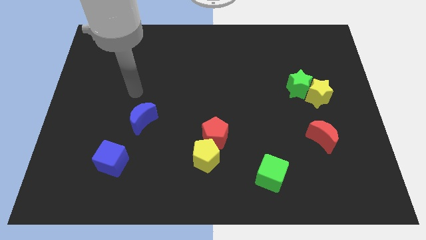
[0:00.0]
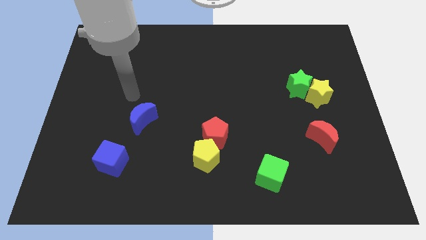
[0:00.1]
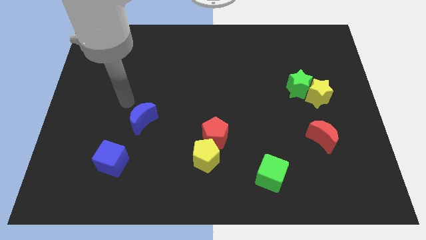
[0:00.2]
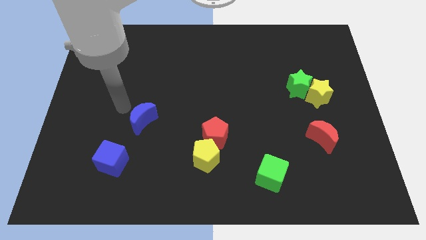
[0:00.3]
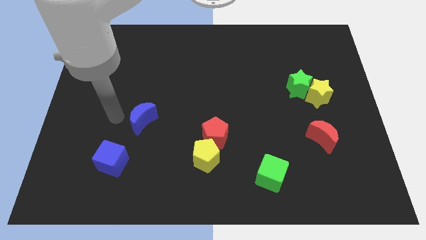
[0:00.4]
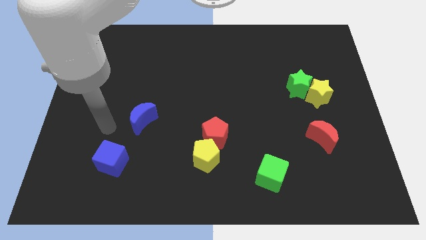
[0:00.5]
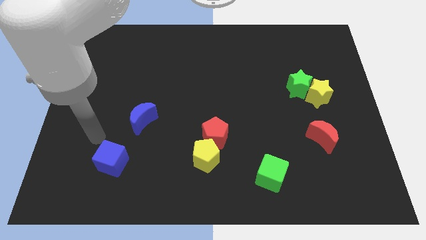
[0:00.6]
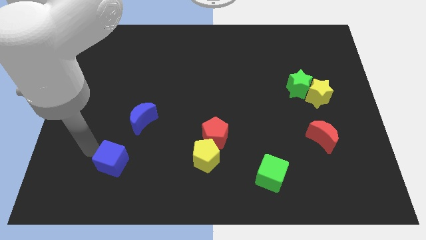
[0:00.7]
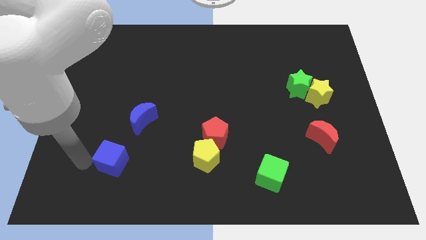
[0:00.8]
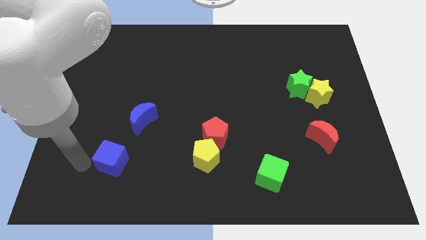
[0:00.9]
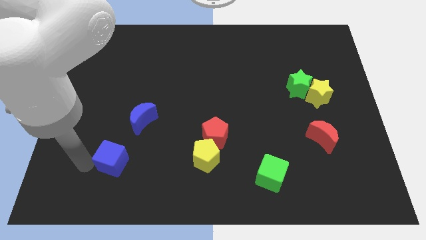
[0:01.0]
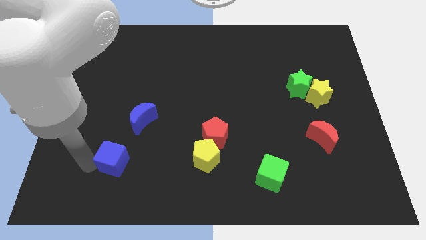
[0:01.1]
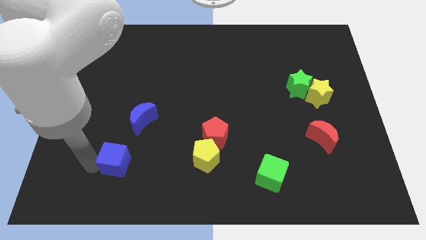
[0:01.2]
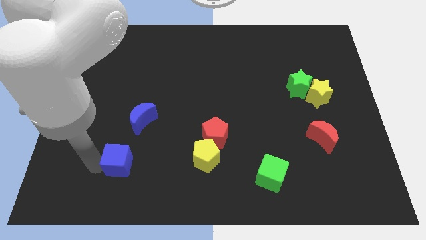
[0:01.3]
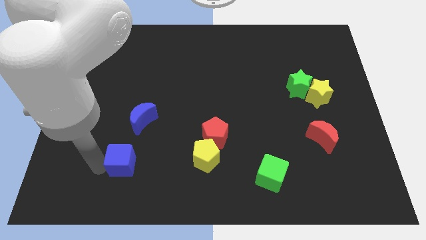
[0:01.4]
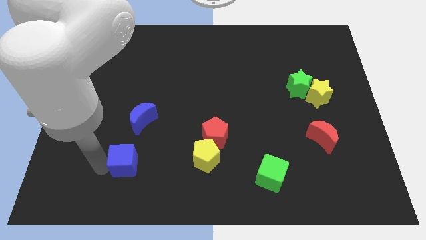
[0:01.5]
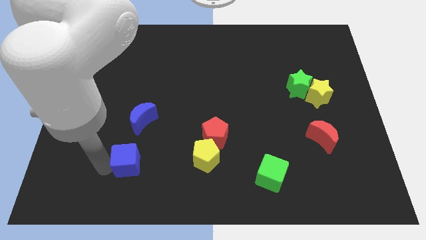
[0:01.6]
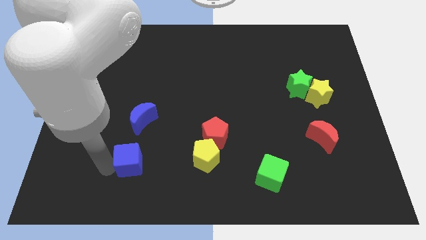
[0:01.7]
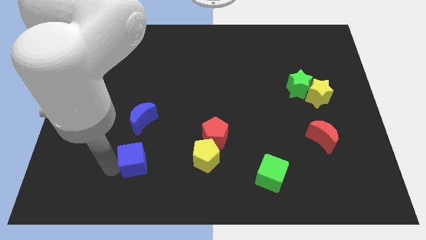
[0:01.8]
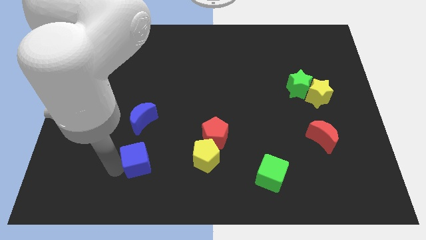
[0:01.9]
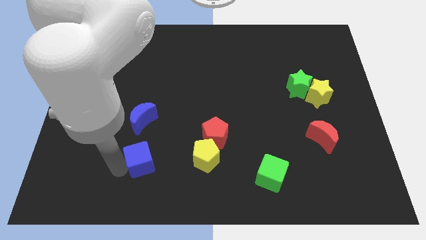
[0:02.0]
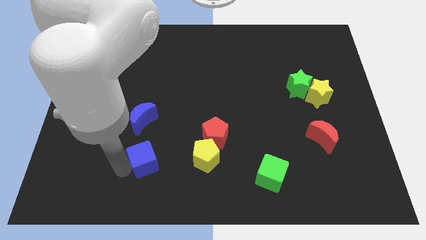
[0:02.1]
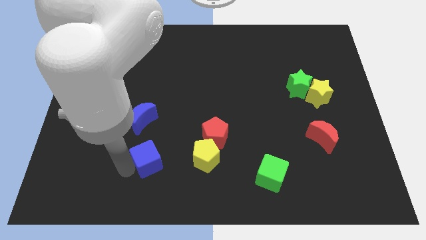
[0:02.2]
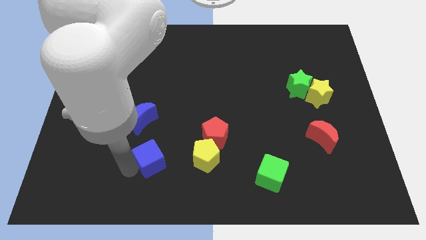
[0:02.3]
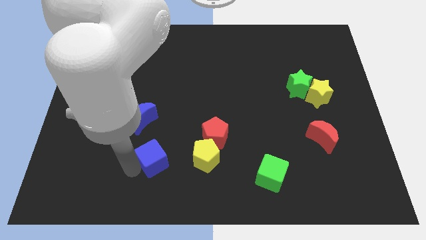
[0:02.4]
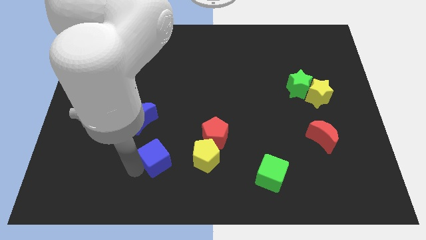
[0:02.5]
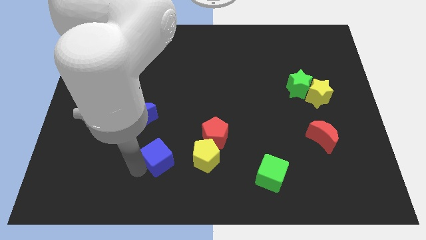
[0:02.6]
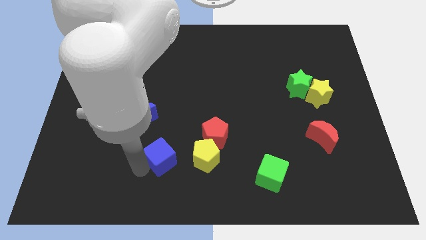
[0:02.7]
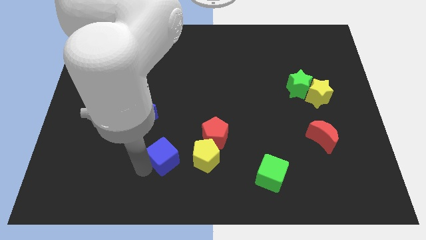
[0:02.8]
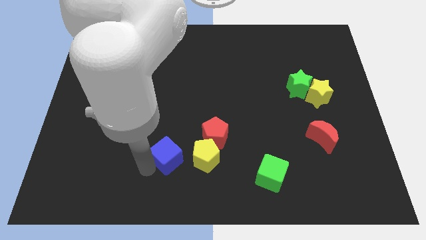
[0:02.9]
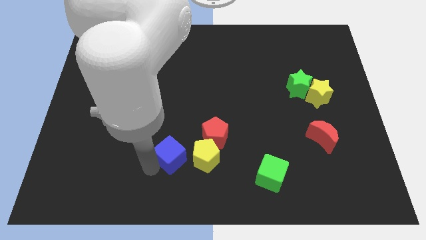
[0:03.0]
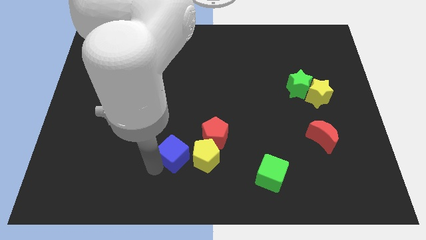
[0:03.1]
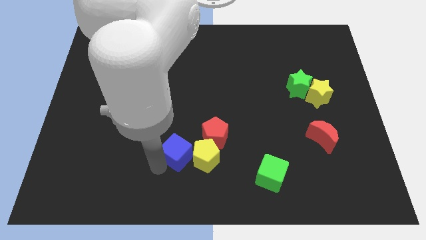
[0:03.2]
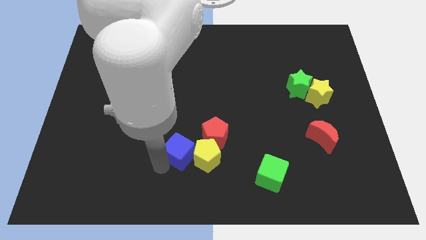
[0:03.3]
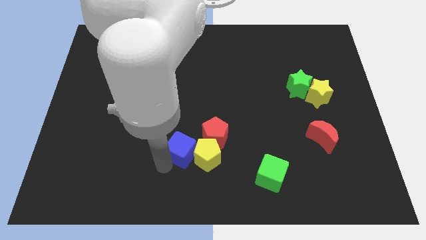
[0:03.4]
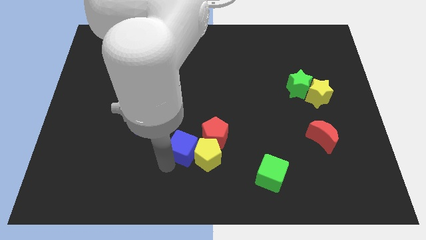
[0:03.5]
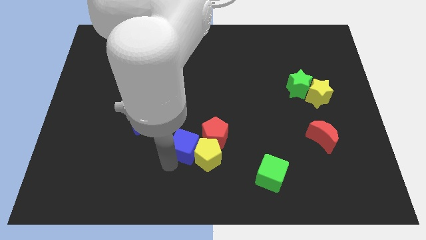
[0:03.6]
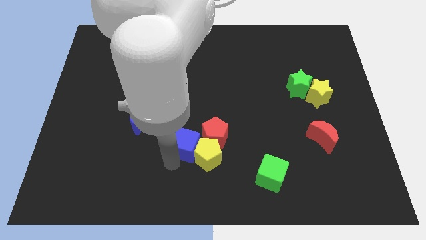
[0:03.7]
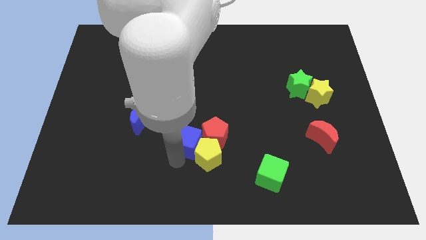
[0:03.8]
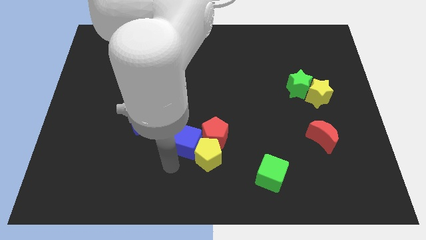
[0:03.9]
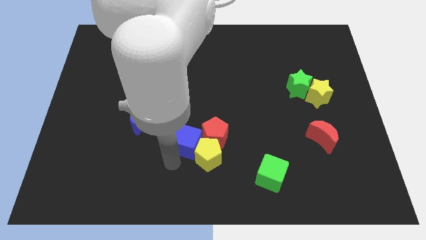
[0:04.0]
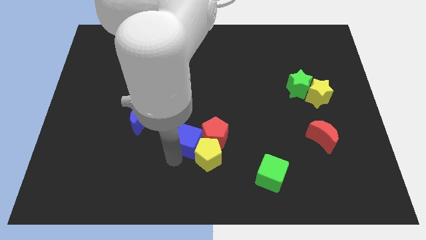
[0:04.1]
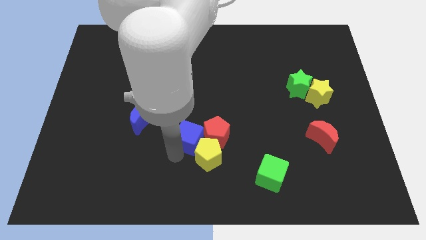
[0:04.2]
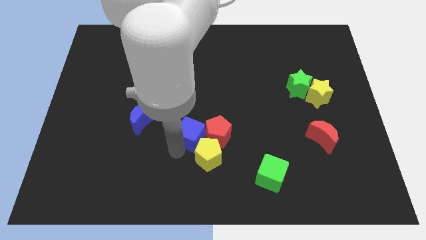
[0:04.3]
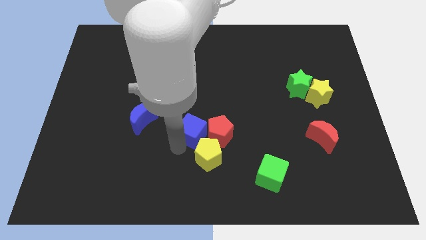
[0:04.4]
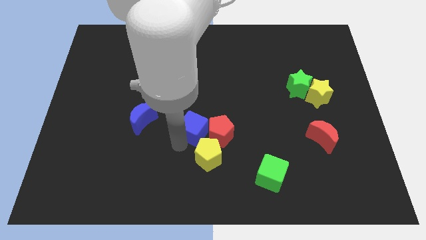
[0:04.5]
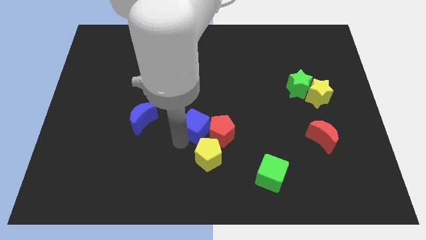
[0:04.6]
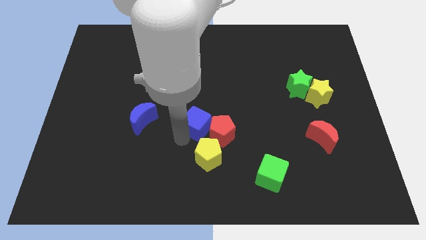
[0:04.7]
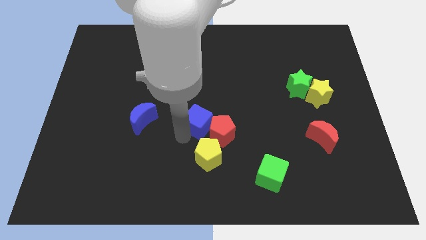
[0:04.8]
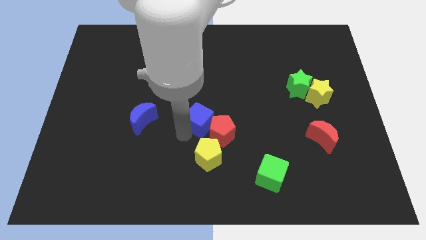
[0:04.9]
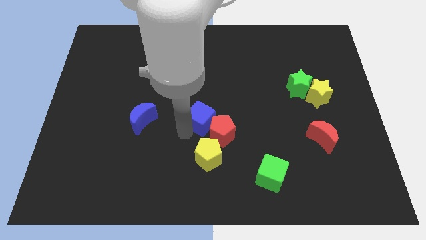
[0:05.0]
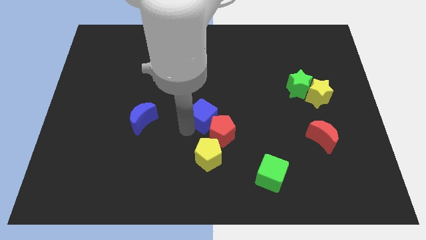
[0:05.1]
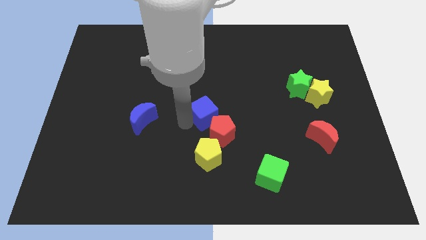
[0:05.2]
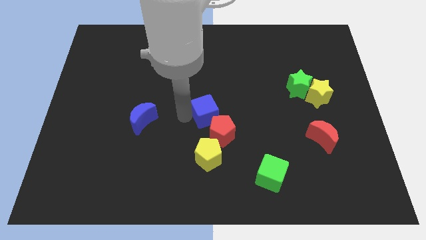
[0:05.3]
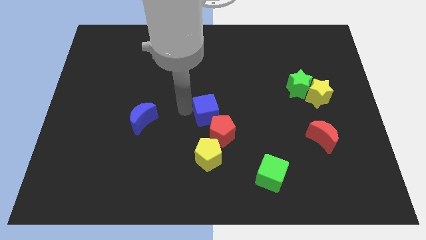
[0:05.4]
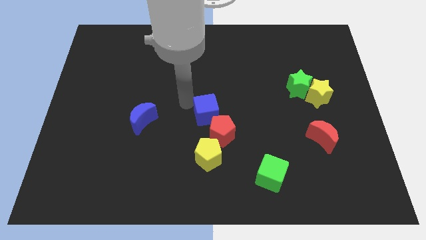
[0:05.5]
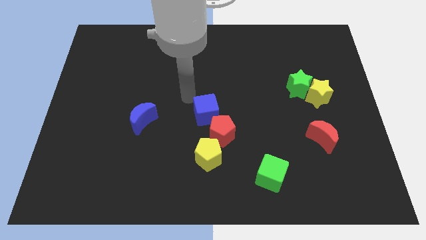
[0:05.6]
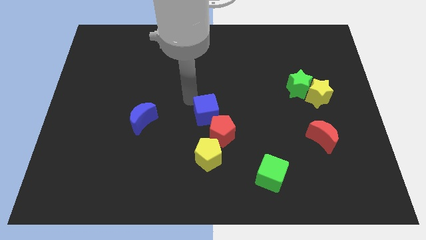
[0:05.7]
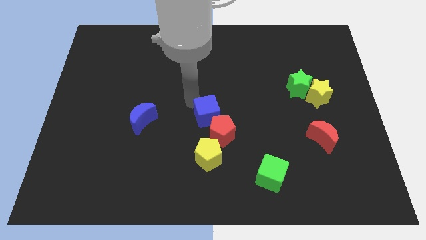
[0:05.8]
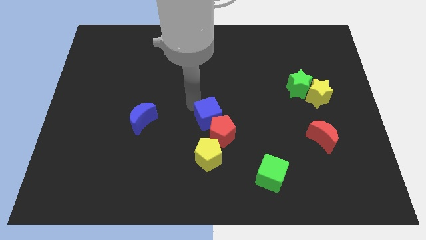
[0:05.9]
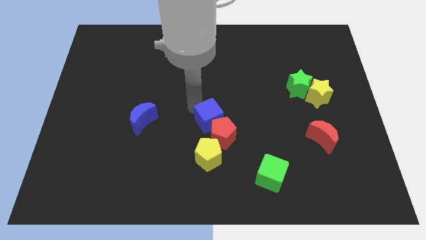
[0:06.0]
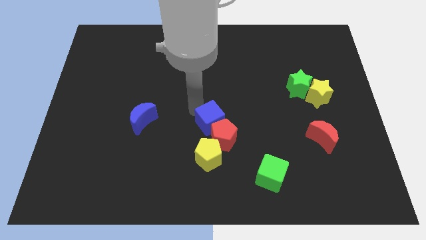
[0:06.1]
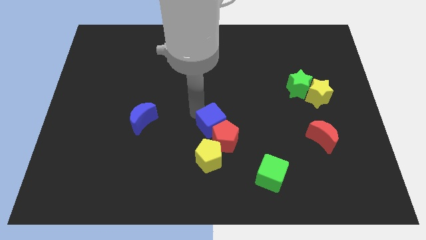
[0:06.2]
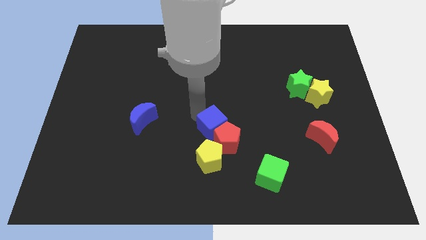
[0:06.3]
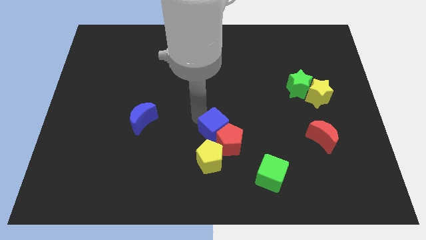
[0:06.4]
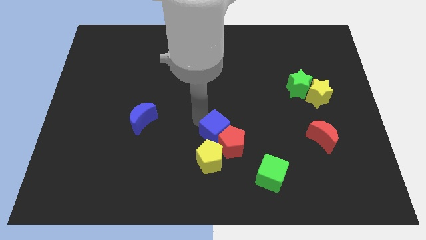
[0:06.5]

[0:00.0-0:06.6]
slide the blue cube diagonally up and to the right of the yellow pentagon

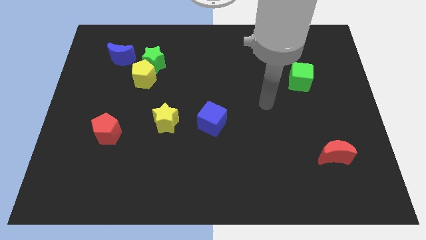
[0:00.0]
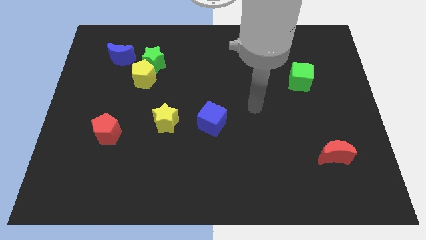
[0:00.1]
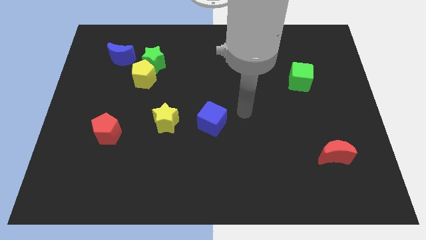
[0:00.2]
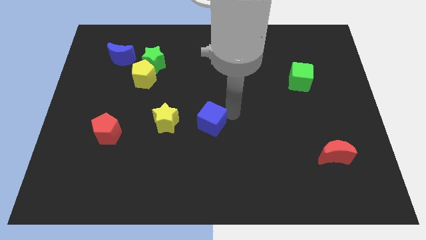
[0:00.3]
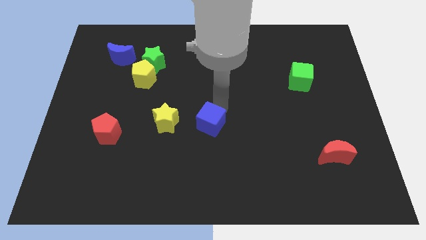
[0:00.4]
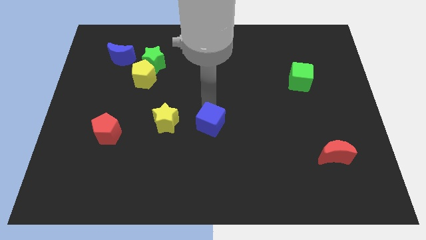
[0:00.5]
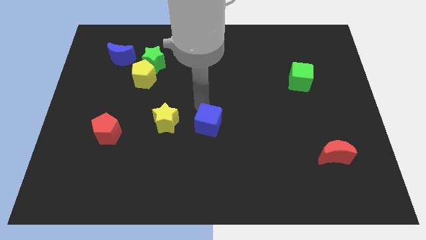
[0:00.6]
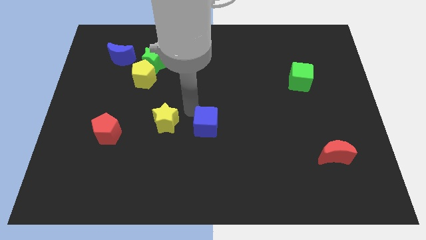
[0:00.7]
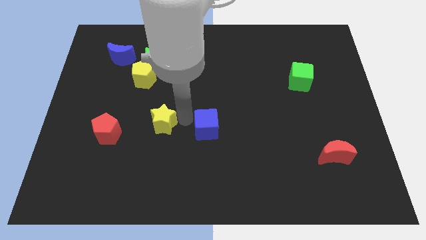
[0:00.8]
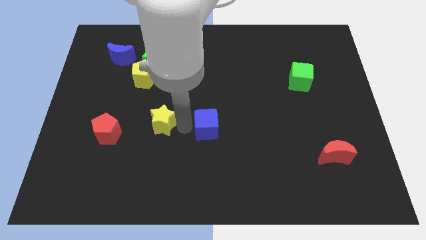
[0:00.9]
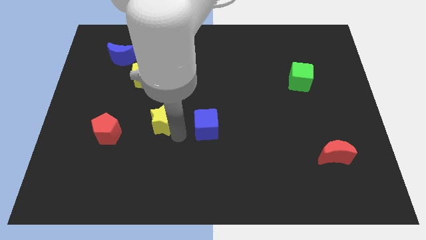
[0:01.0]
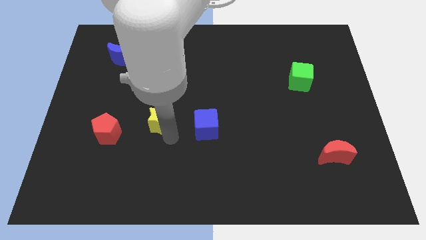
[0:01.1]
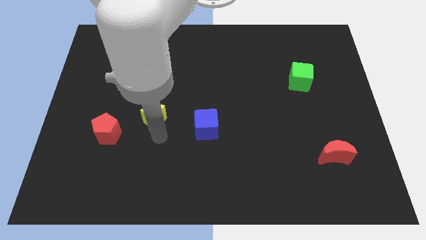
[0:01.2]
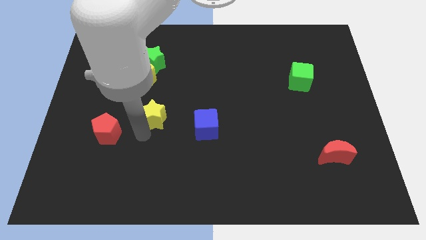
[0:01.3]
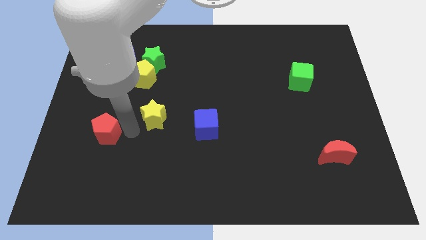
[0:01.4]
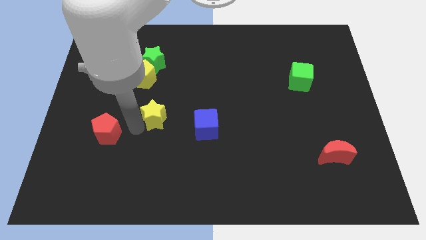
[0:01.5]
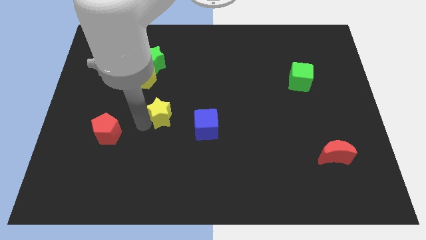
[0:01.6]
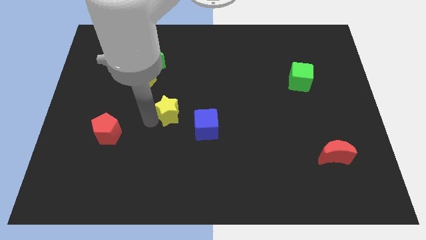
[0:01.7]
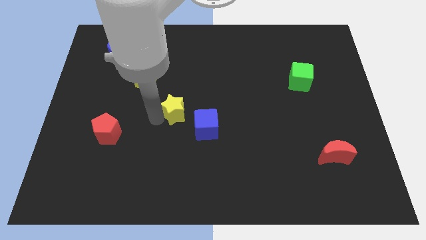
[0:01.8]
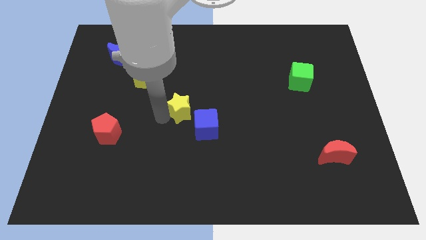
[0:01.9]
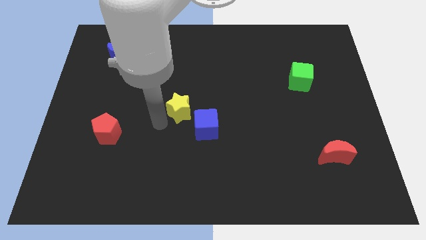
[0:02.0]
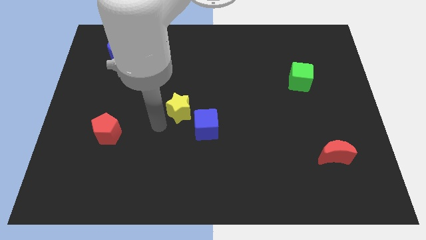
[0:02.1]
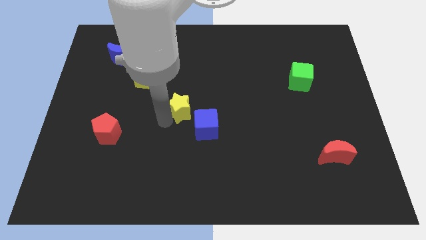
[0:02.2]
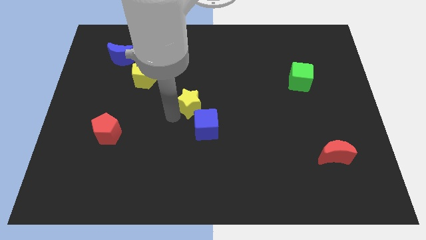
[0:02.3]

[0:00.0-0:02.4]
push the yellow star above the blue cube
